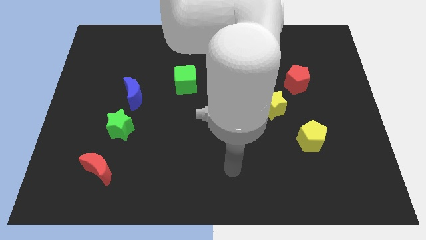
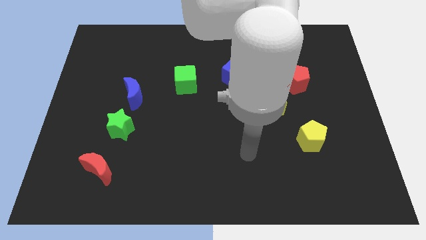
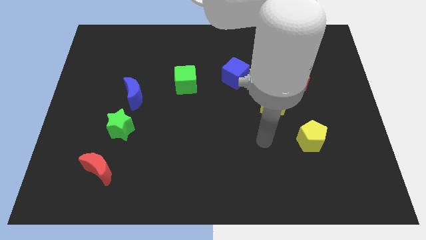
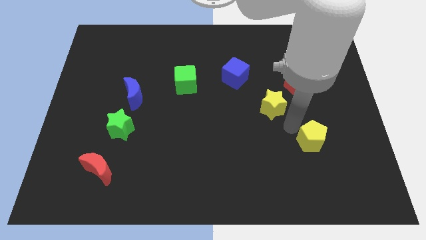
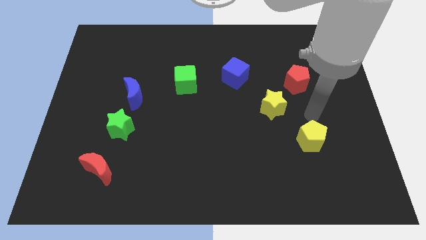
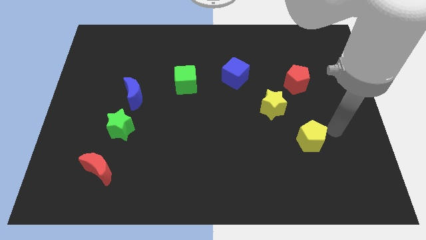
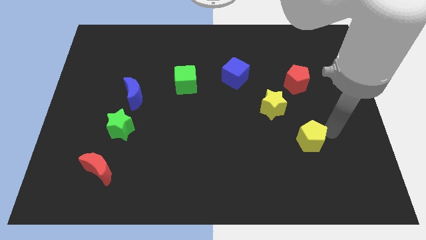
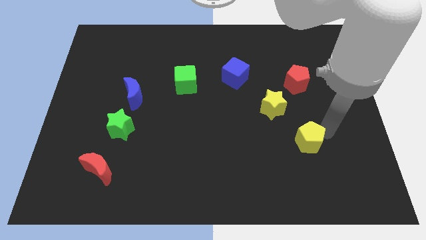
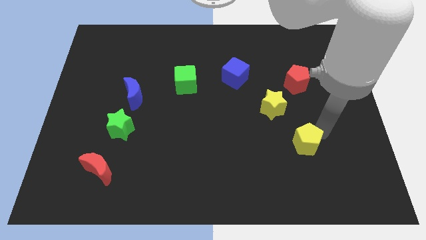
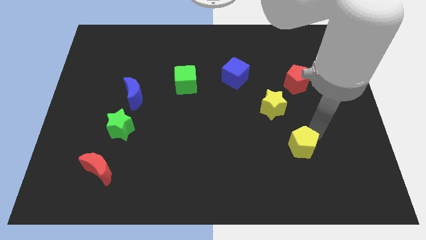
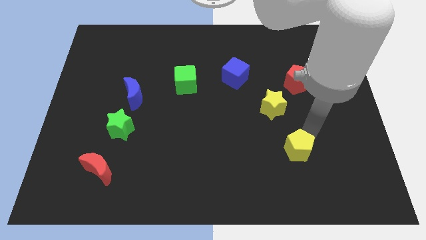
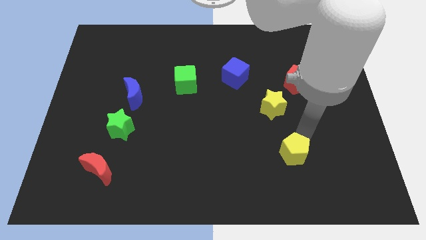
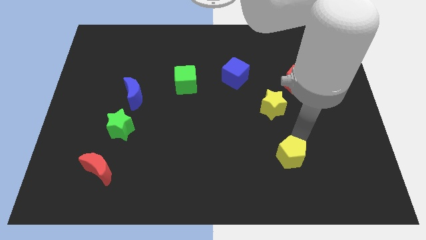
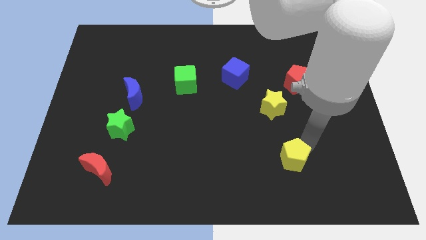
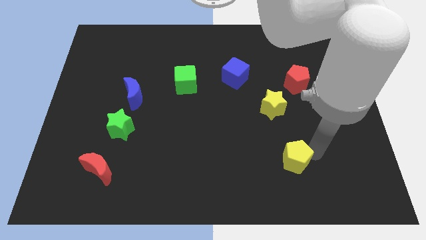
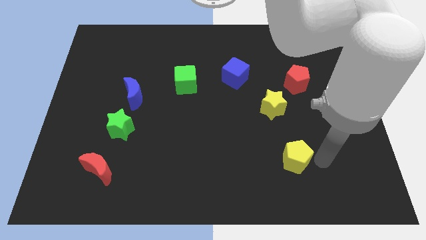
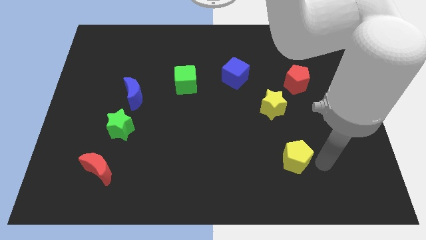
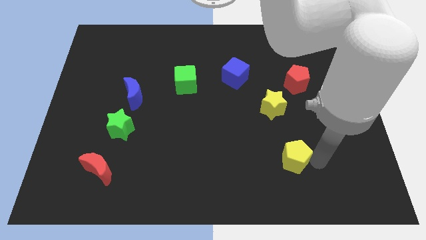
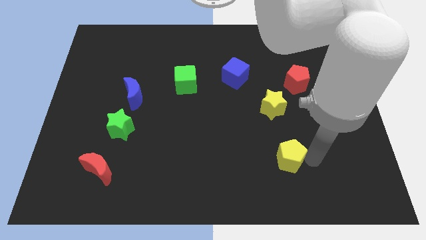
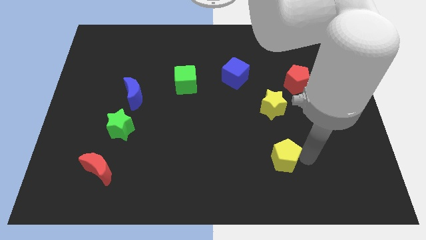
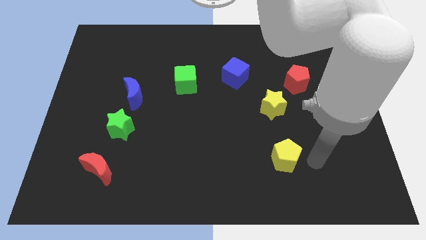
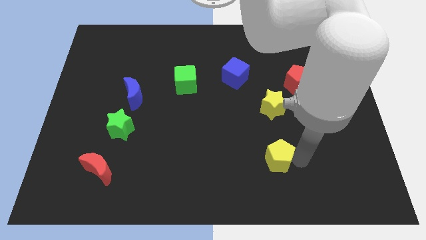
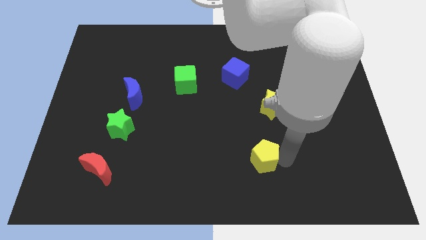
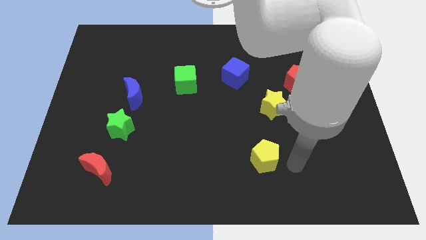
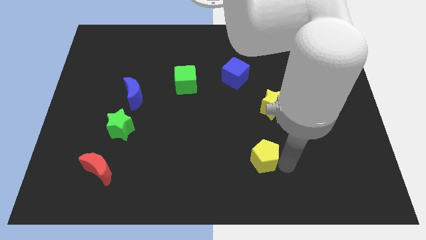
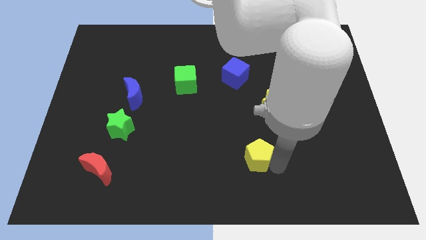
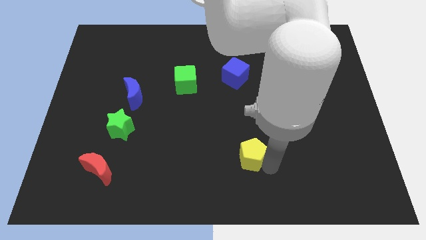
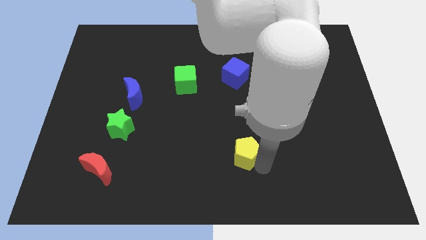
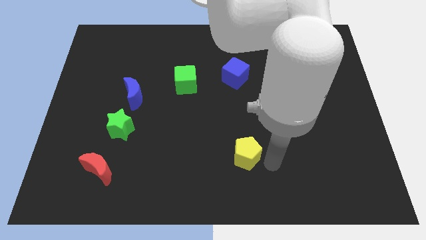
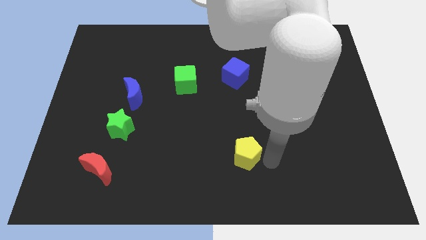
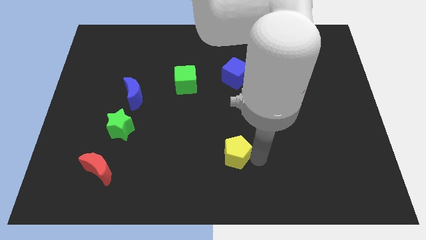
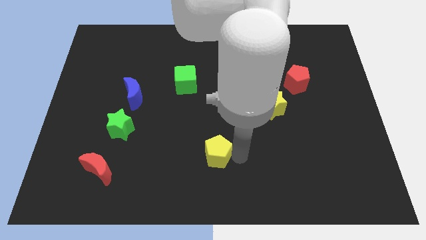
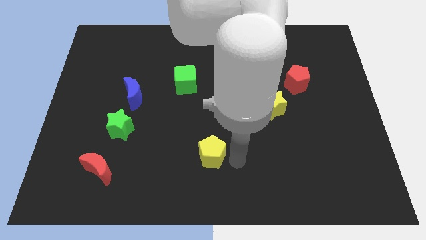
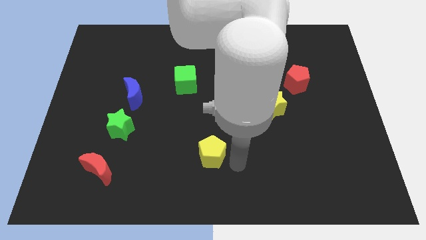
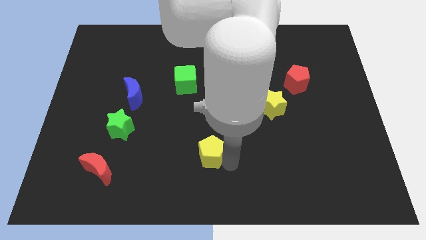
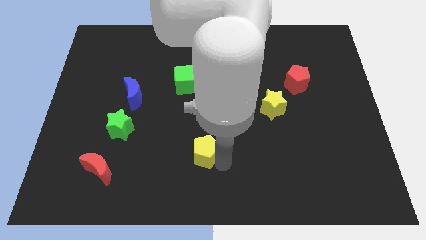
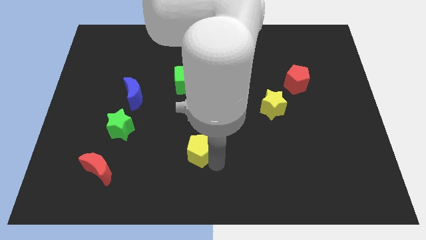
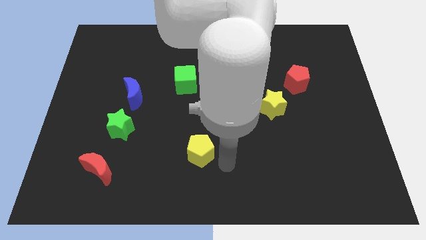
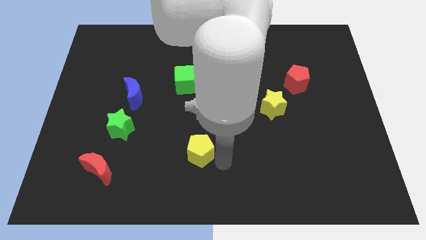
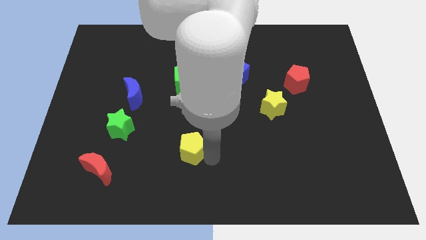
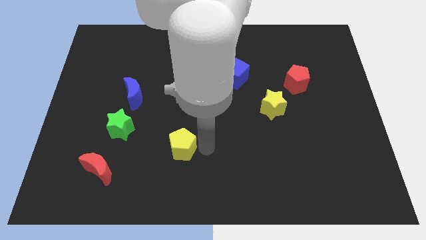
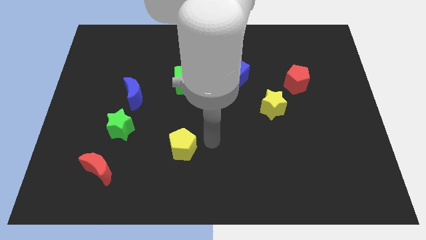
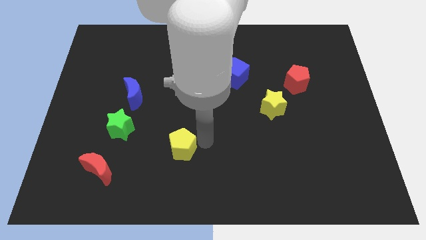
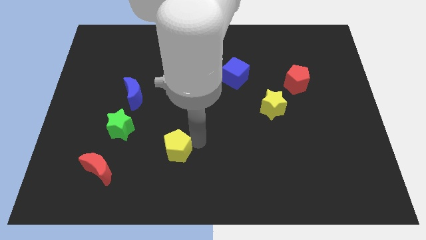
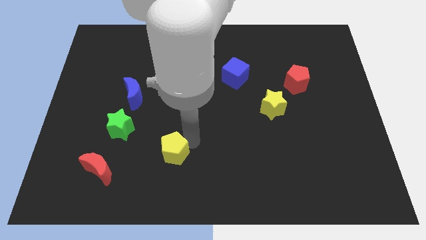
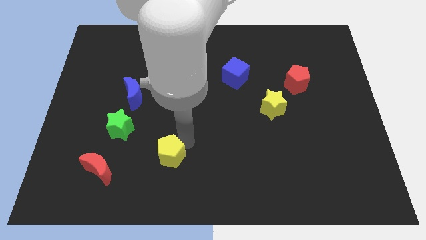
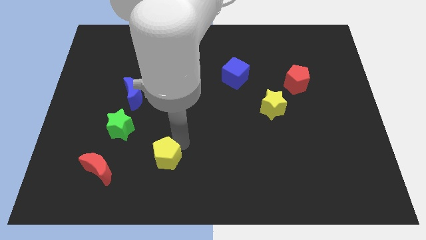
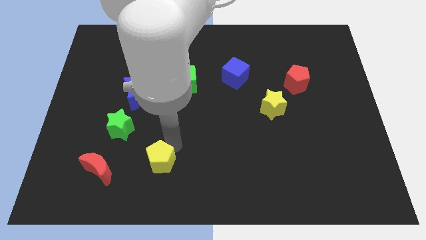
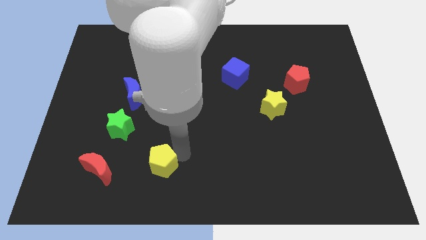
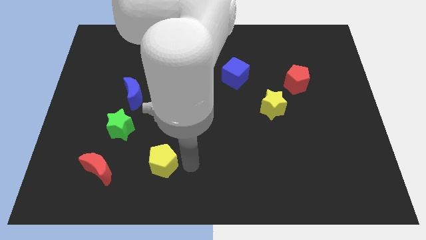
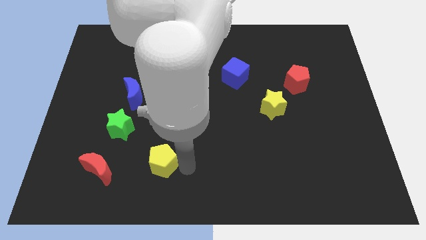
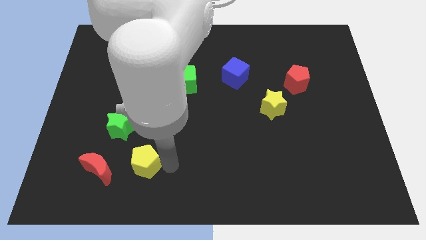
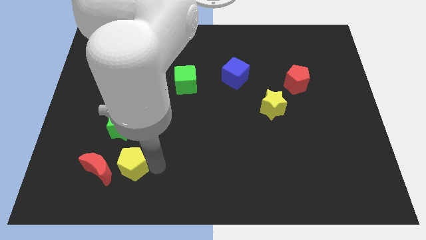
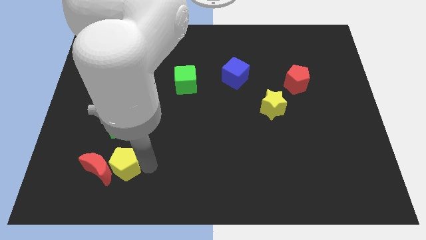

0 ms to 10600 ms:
push the yellow pentagon close to the red moon

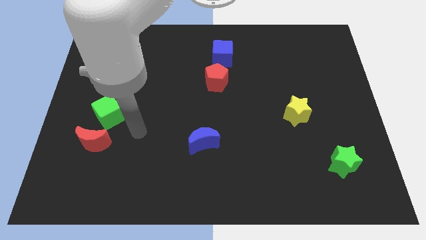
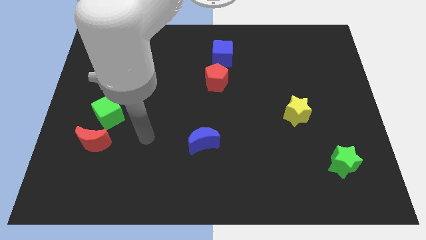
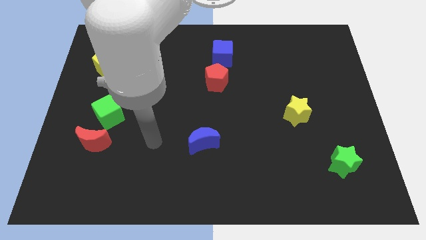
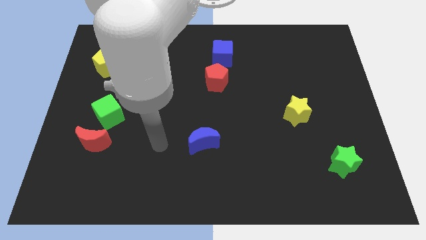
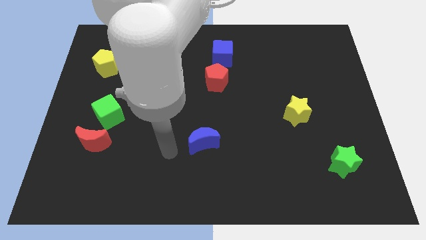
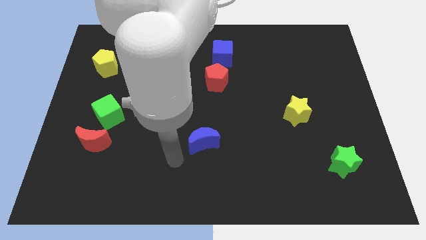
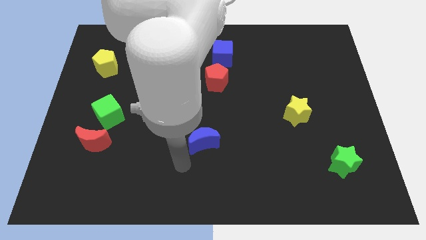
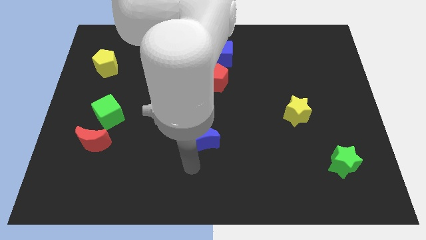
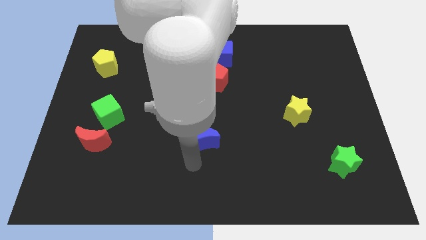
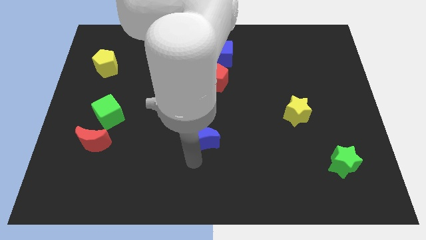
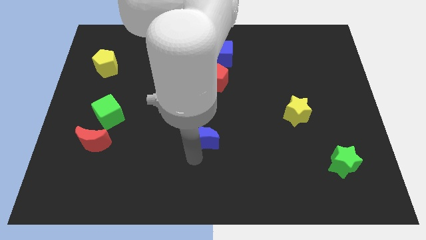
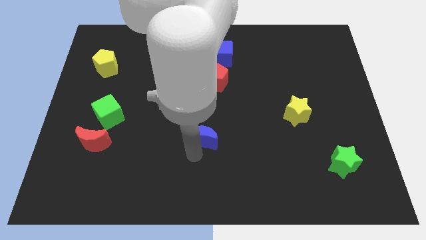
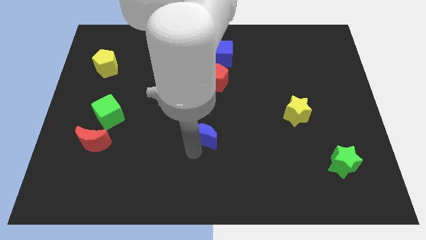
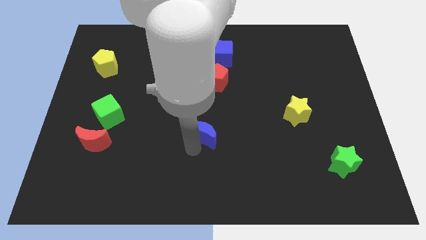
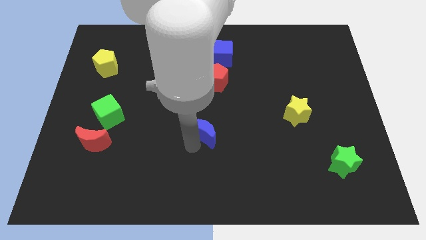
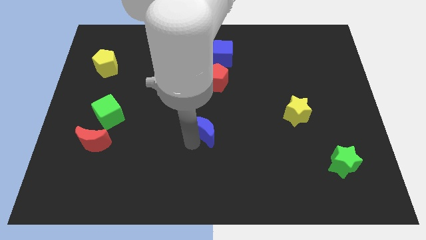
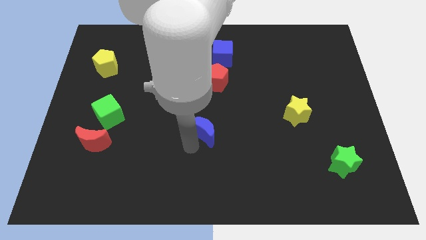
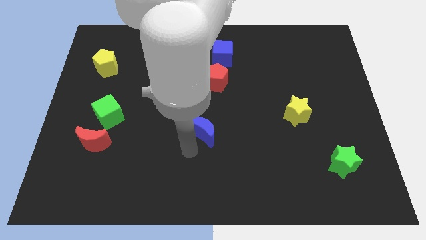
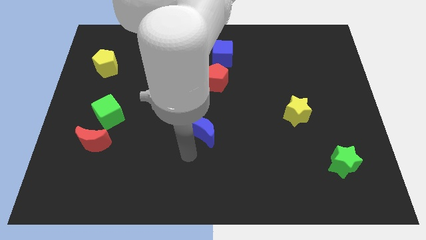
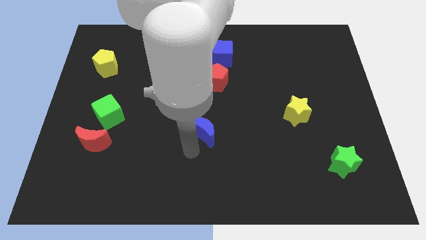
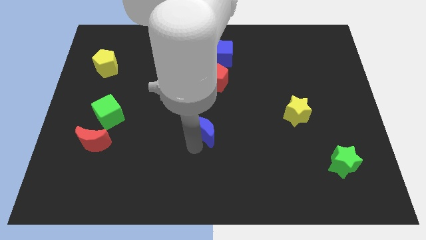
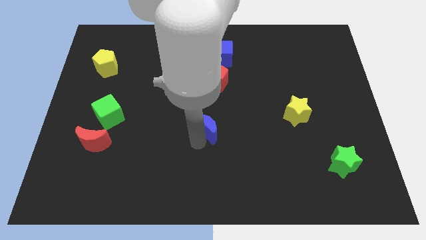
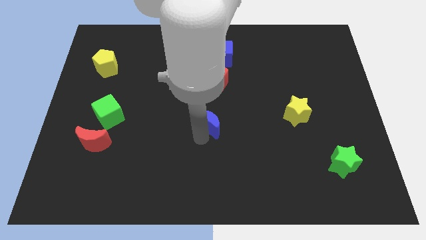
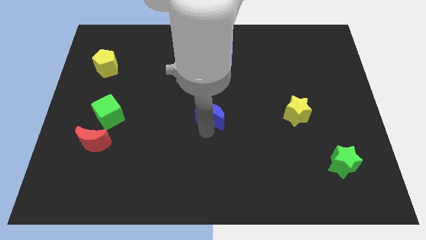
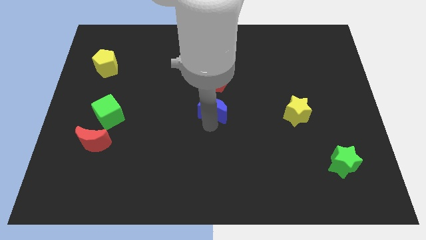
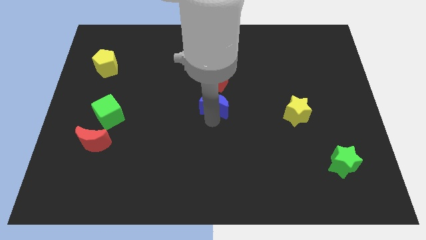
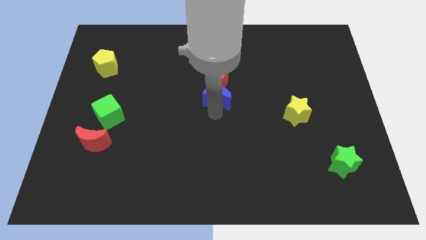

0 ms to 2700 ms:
slide the blue moon close to the red pentagon
